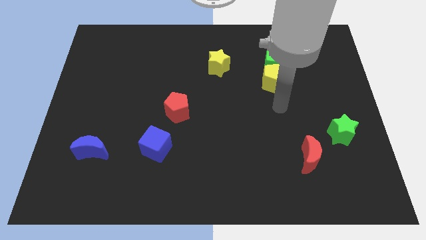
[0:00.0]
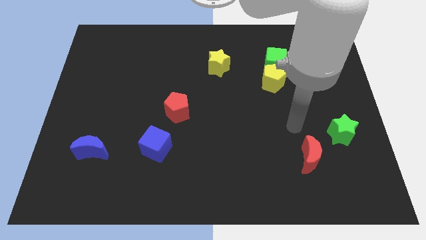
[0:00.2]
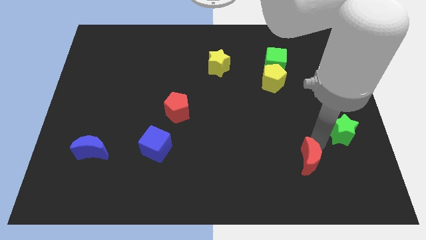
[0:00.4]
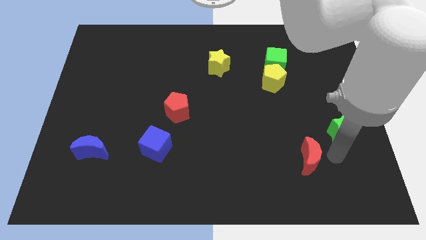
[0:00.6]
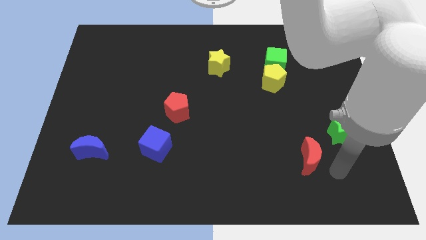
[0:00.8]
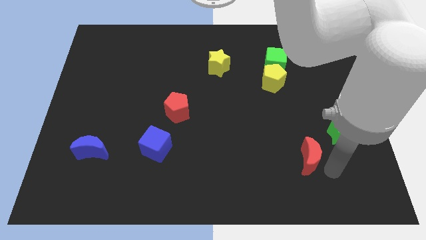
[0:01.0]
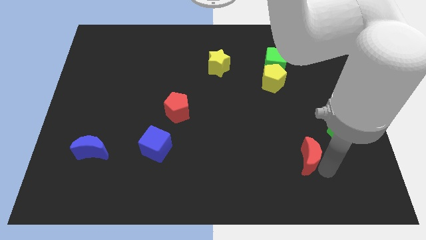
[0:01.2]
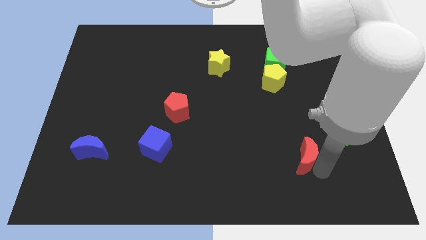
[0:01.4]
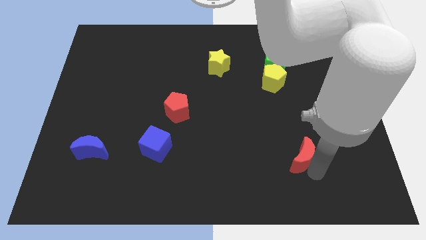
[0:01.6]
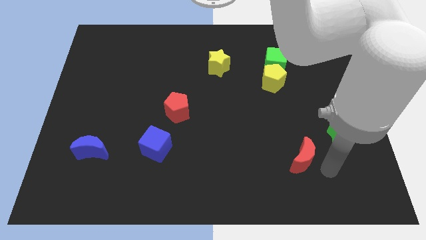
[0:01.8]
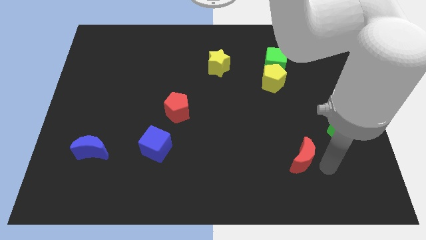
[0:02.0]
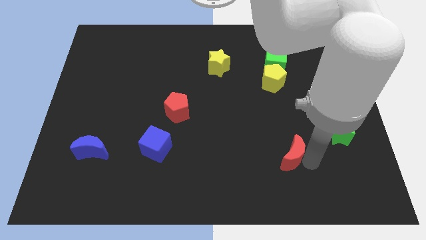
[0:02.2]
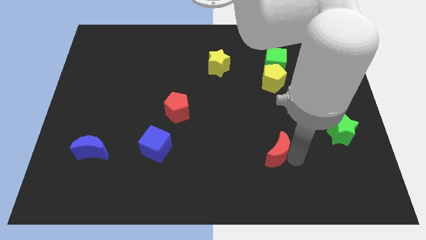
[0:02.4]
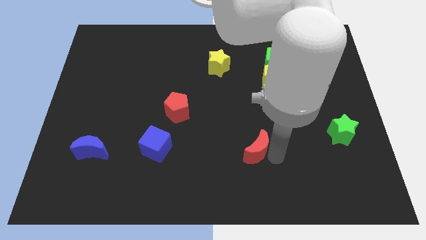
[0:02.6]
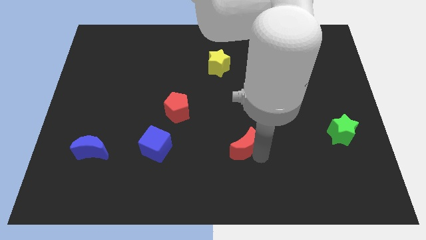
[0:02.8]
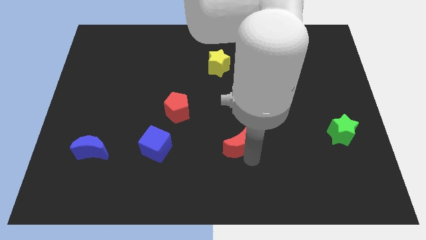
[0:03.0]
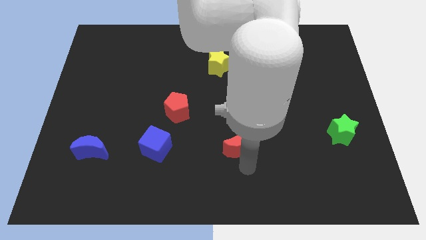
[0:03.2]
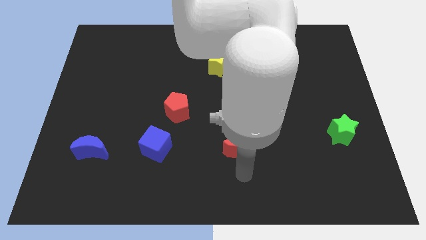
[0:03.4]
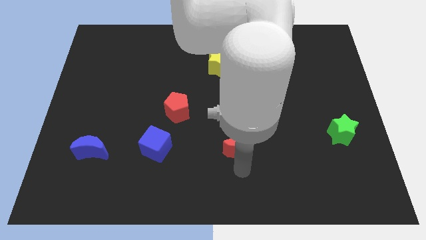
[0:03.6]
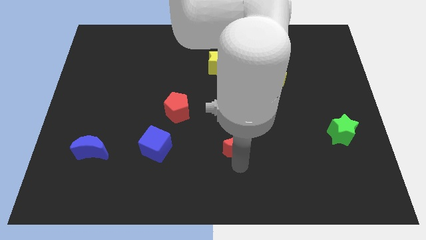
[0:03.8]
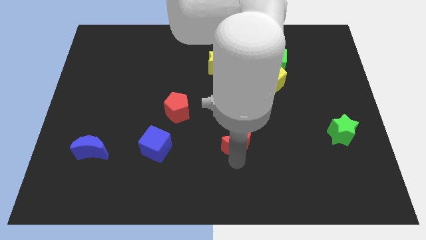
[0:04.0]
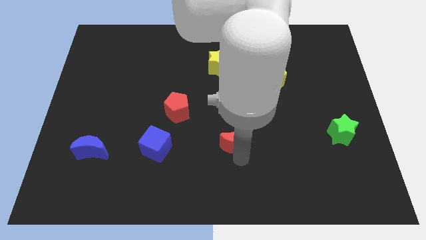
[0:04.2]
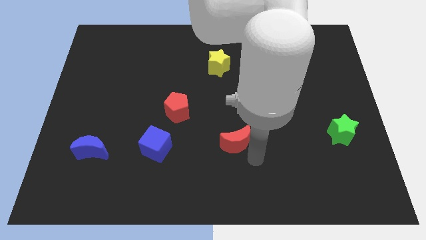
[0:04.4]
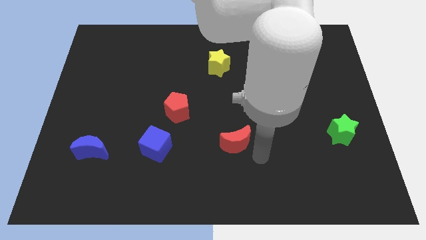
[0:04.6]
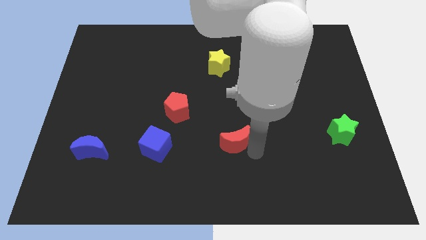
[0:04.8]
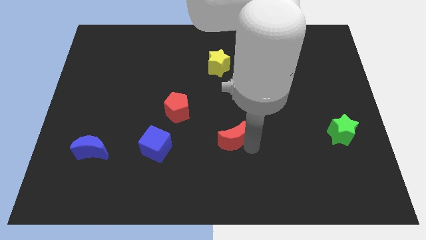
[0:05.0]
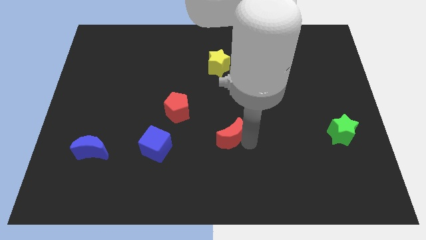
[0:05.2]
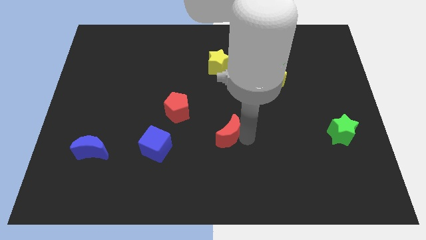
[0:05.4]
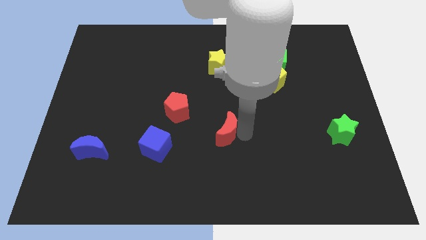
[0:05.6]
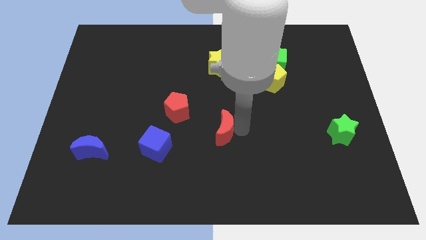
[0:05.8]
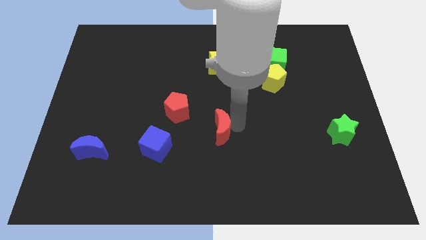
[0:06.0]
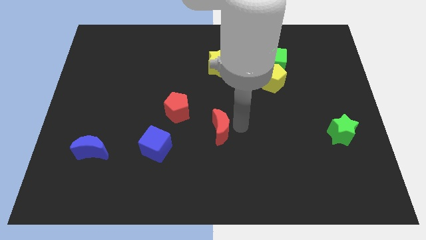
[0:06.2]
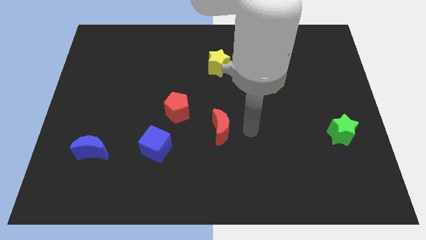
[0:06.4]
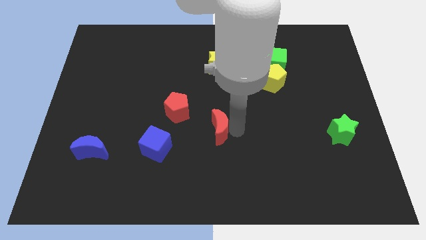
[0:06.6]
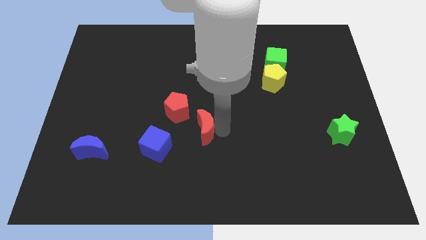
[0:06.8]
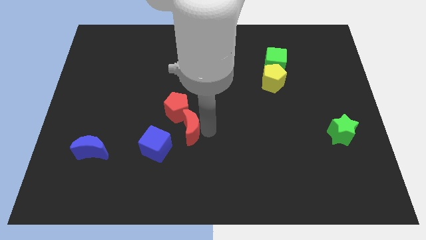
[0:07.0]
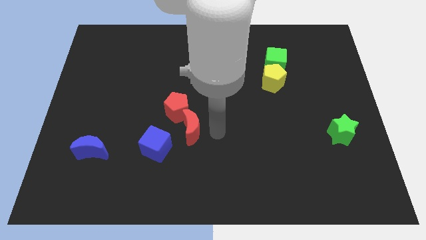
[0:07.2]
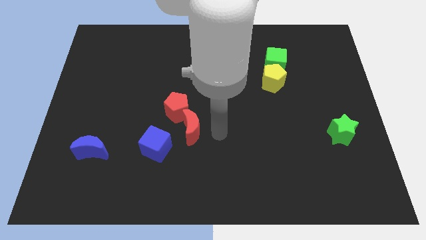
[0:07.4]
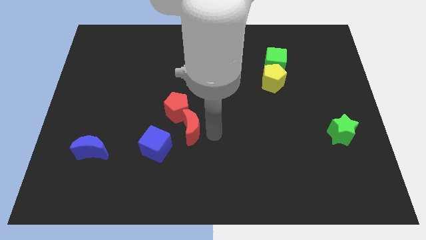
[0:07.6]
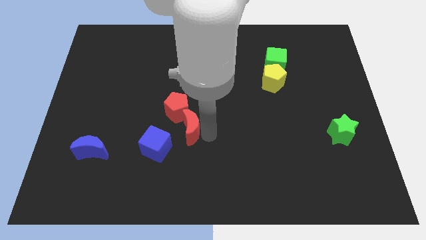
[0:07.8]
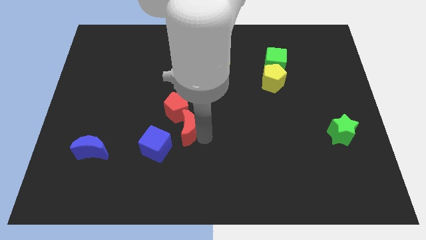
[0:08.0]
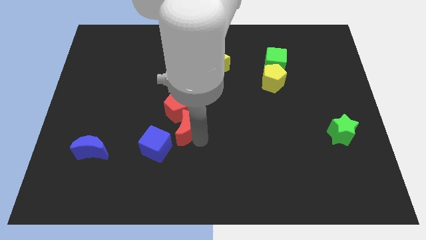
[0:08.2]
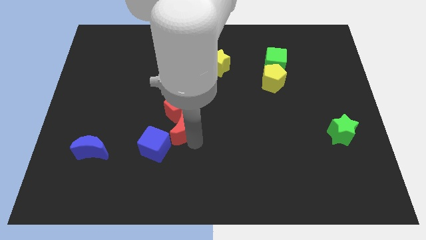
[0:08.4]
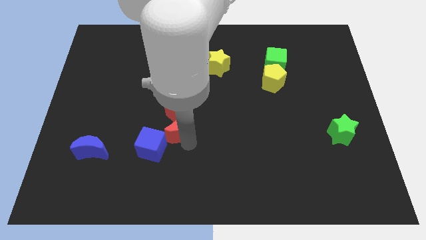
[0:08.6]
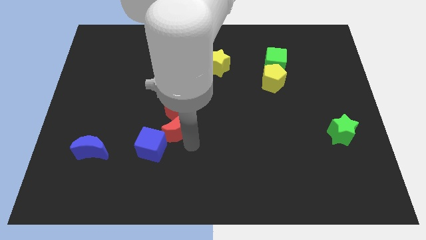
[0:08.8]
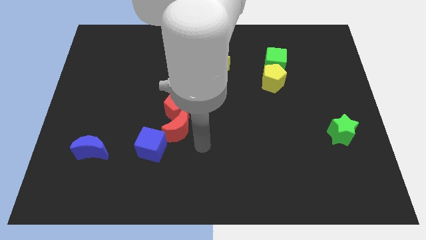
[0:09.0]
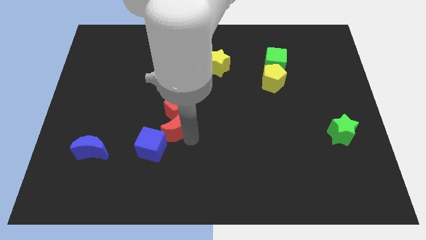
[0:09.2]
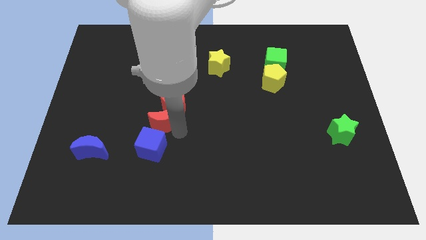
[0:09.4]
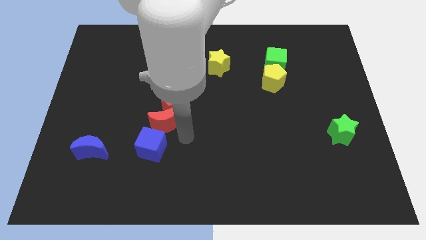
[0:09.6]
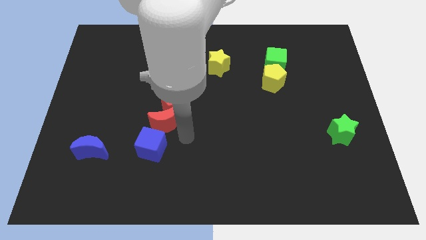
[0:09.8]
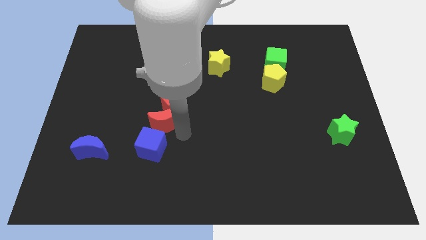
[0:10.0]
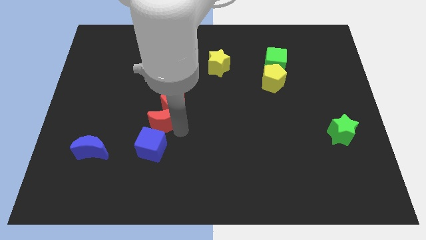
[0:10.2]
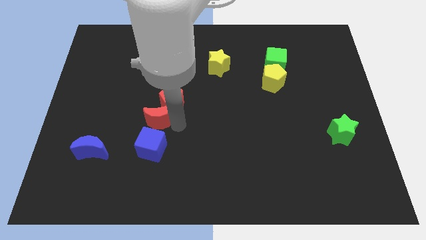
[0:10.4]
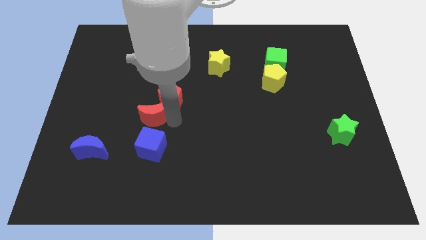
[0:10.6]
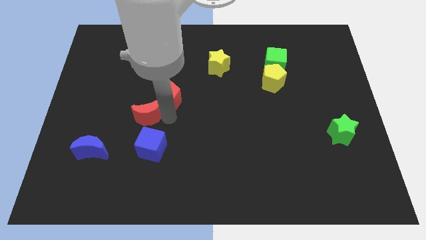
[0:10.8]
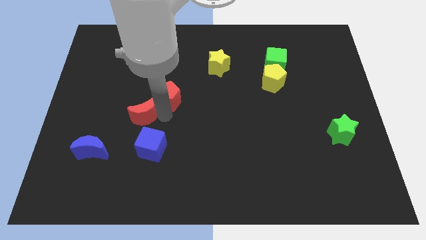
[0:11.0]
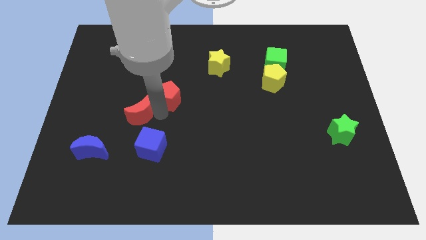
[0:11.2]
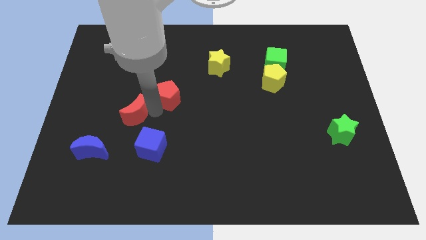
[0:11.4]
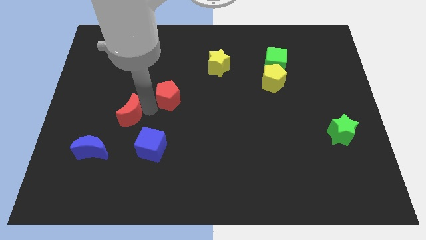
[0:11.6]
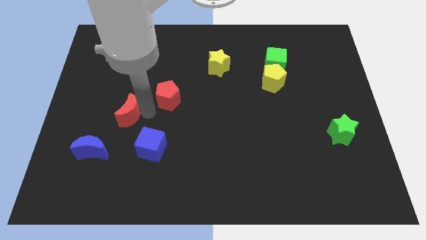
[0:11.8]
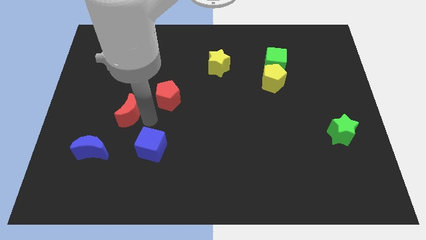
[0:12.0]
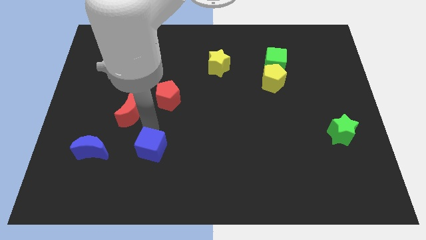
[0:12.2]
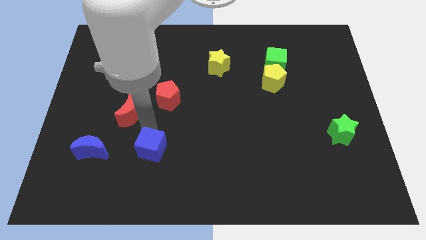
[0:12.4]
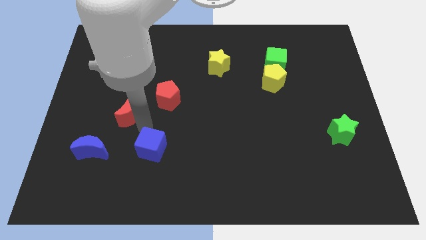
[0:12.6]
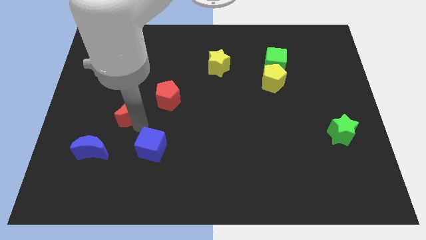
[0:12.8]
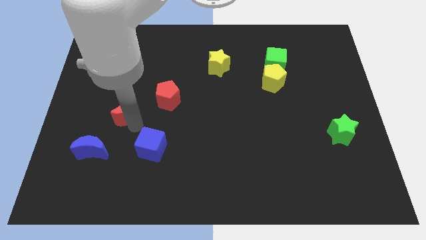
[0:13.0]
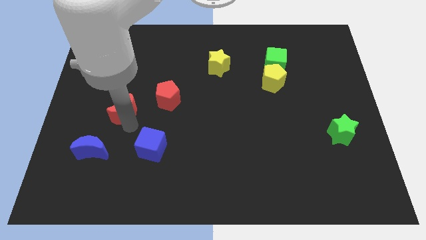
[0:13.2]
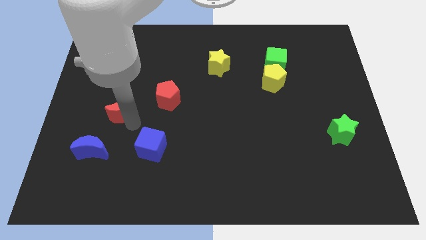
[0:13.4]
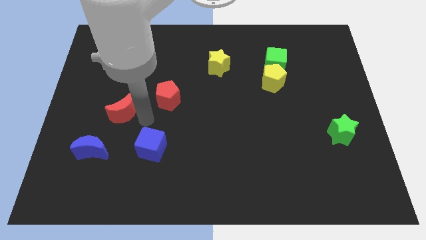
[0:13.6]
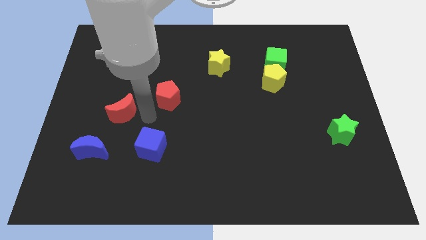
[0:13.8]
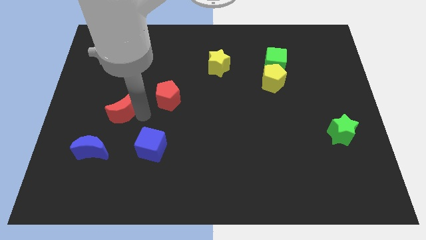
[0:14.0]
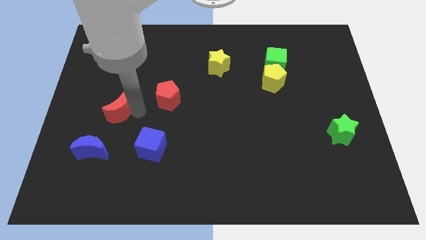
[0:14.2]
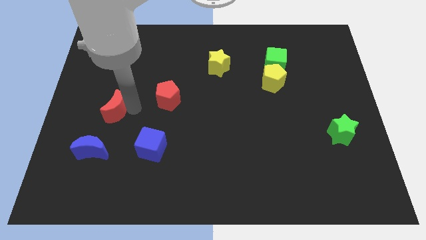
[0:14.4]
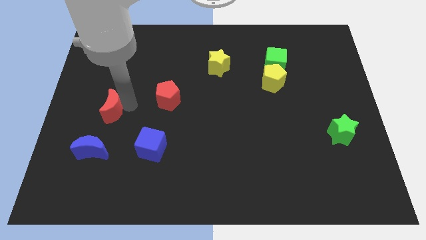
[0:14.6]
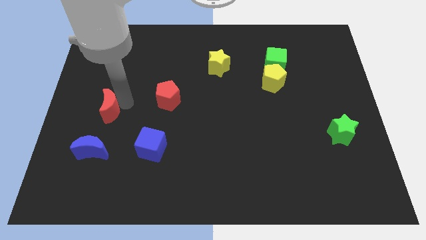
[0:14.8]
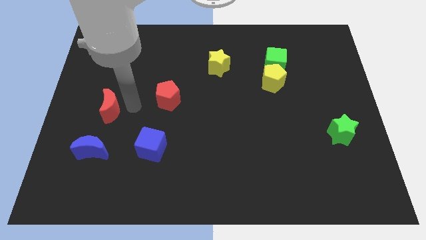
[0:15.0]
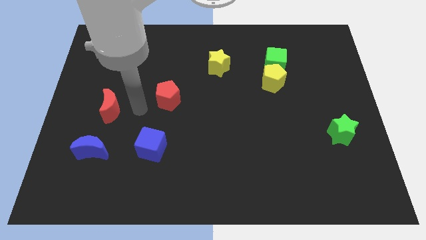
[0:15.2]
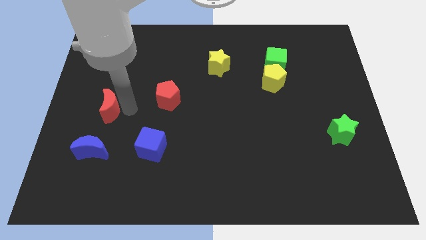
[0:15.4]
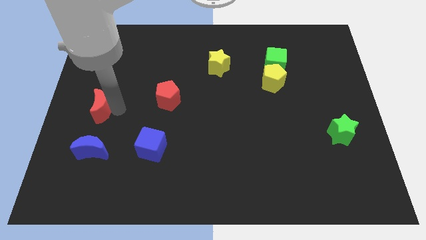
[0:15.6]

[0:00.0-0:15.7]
move the red moon to the left side of the board
